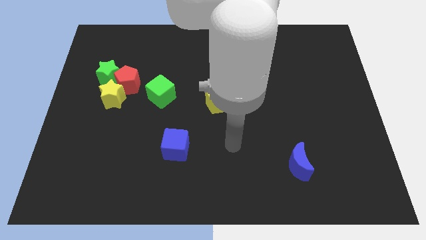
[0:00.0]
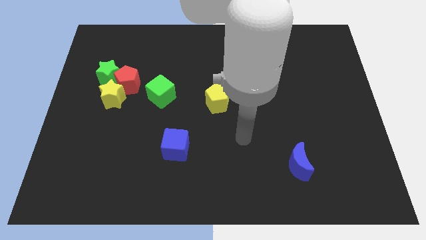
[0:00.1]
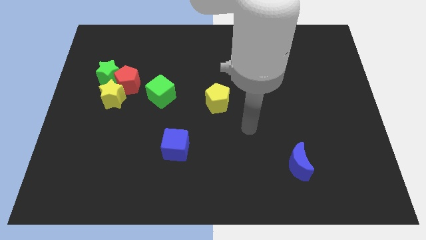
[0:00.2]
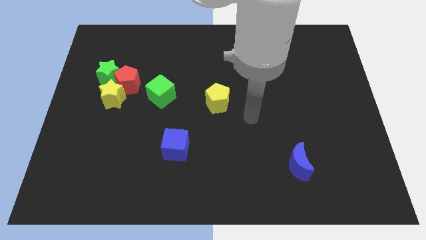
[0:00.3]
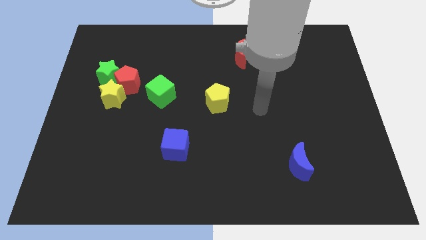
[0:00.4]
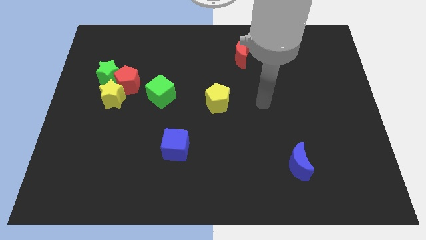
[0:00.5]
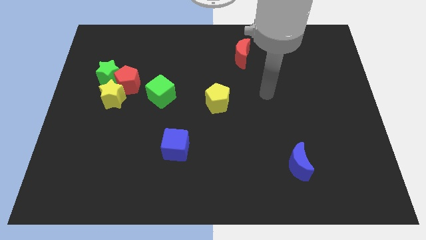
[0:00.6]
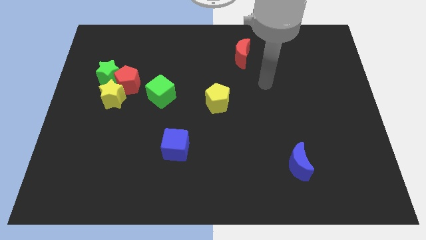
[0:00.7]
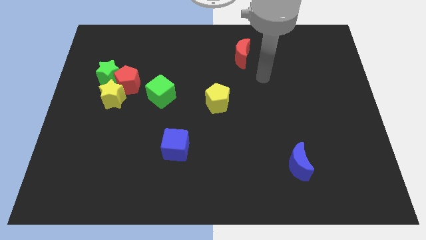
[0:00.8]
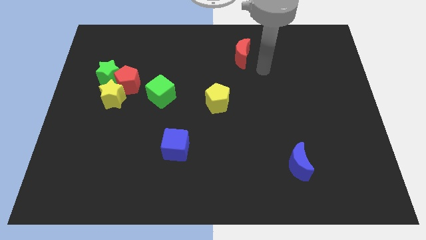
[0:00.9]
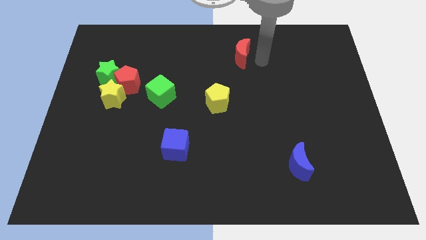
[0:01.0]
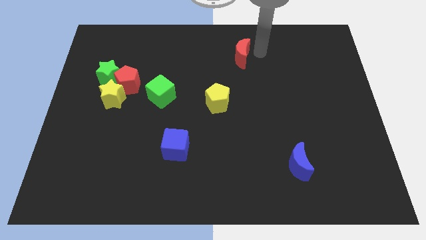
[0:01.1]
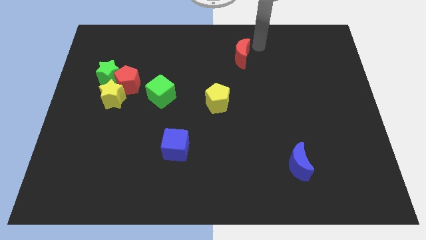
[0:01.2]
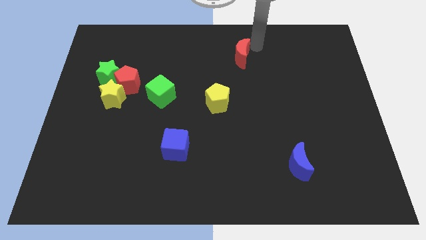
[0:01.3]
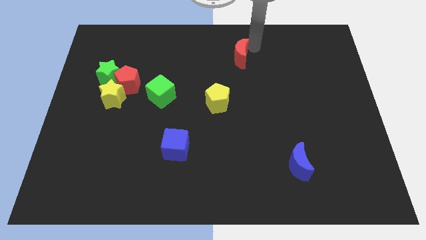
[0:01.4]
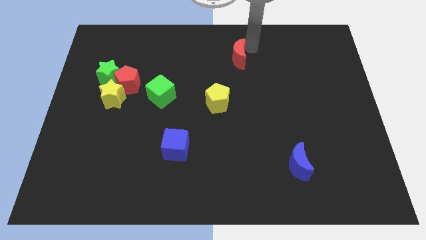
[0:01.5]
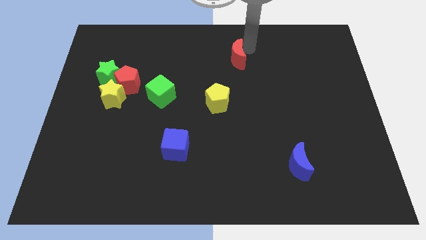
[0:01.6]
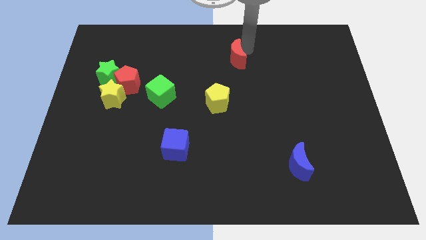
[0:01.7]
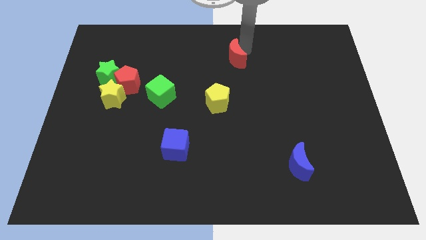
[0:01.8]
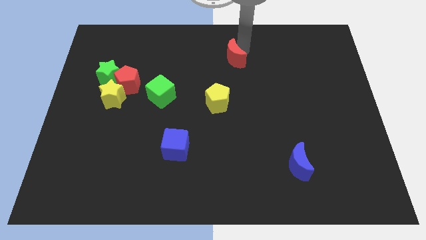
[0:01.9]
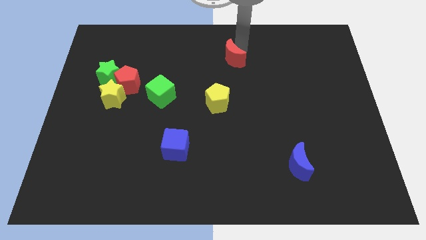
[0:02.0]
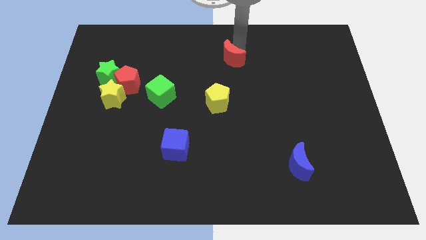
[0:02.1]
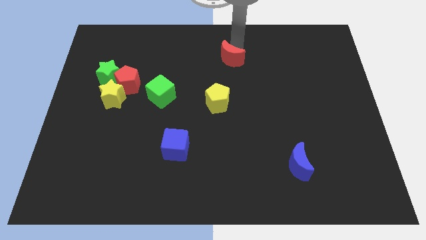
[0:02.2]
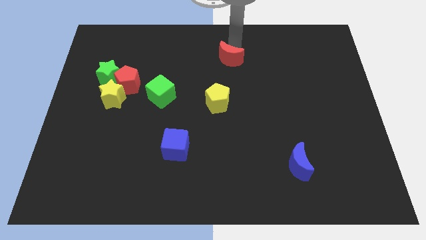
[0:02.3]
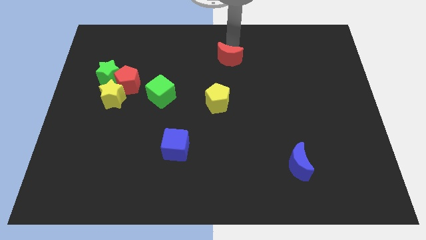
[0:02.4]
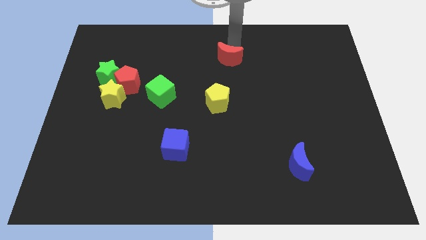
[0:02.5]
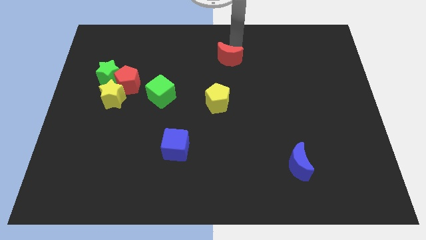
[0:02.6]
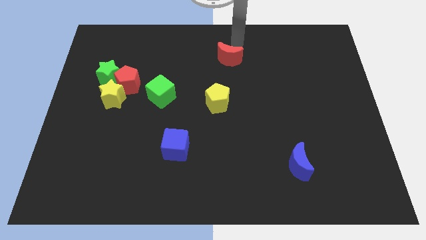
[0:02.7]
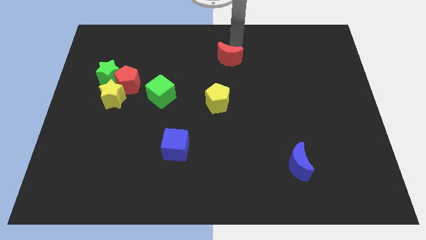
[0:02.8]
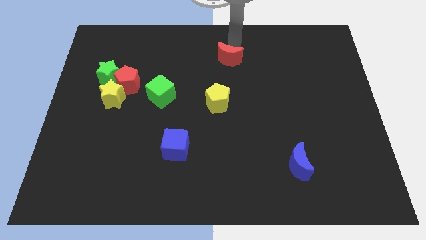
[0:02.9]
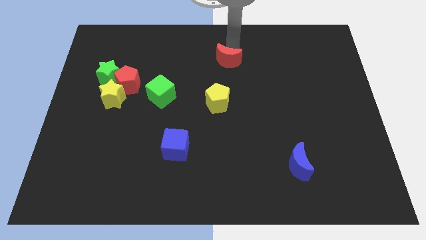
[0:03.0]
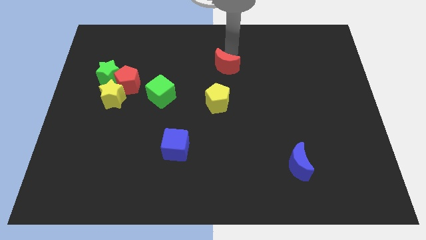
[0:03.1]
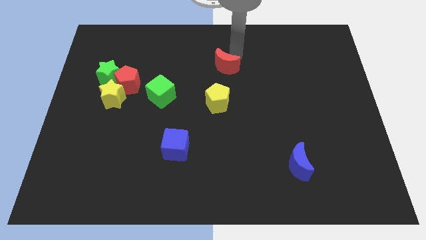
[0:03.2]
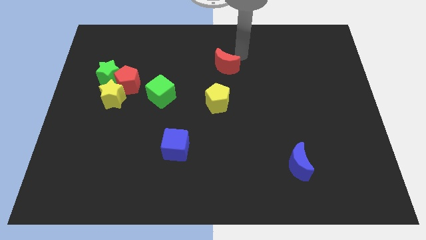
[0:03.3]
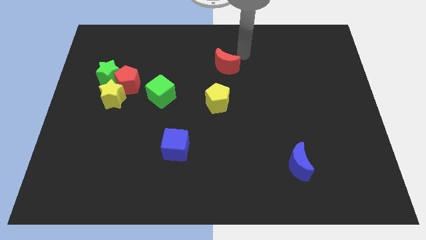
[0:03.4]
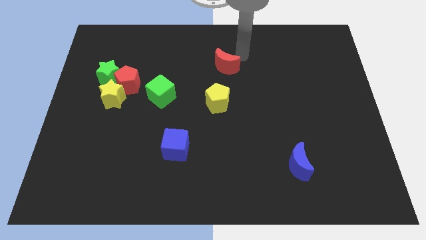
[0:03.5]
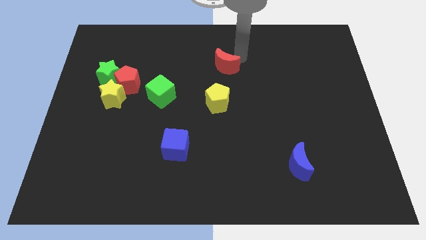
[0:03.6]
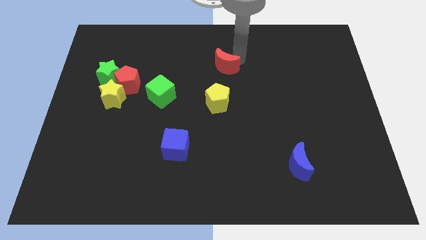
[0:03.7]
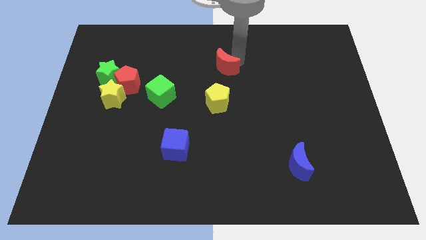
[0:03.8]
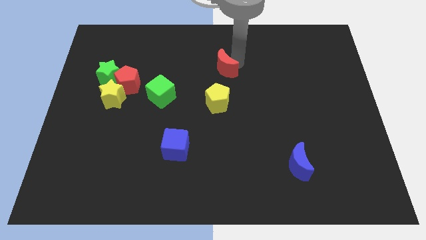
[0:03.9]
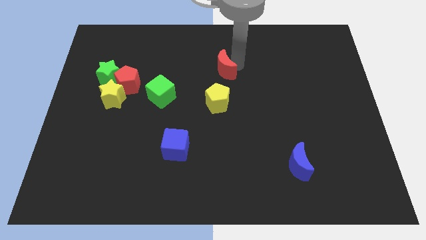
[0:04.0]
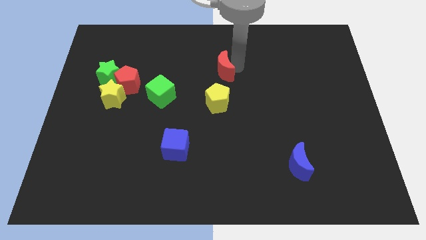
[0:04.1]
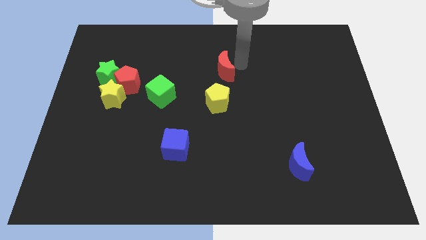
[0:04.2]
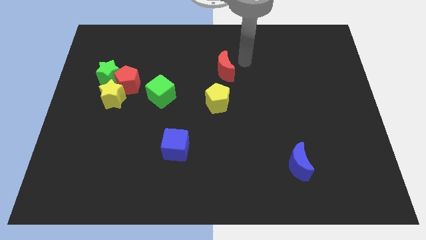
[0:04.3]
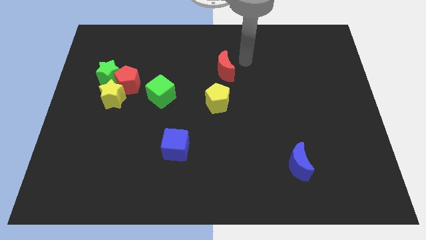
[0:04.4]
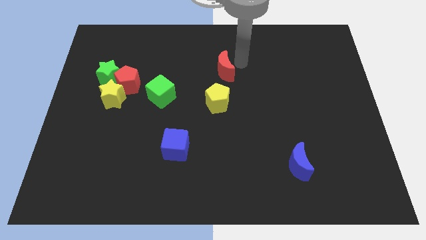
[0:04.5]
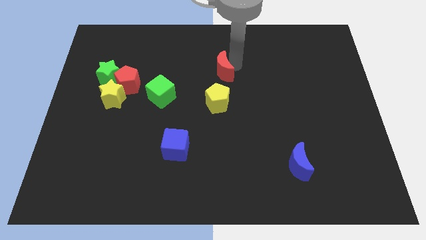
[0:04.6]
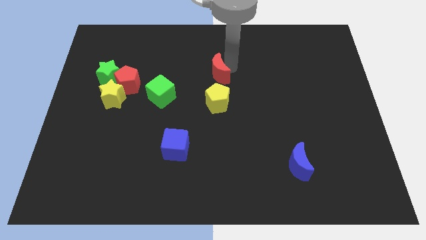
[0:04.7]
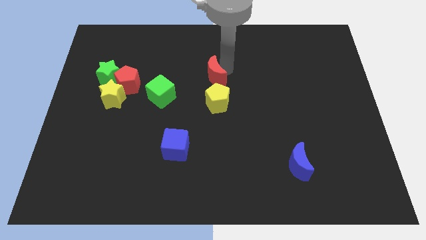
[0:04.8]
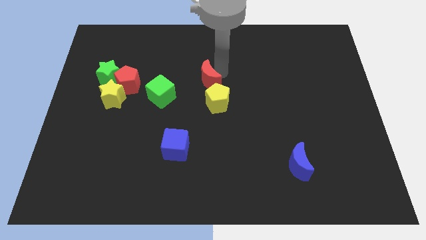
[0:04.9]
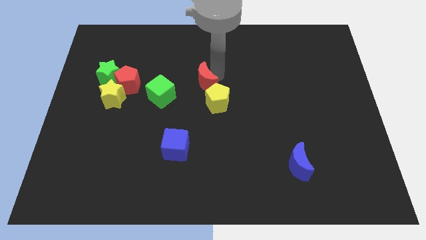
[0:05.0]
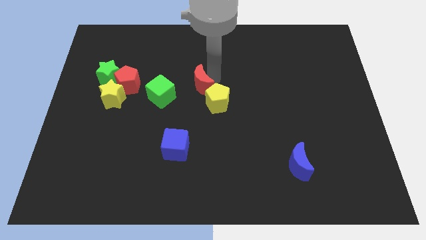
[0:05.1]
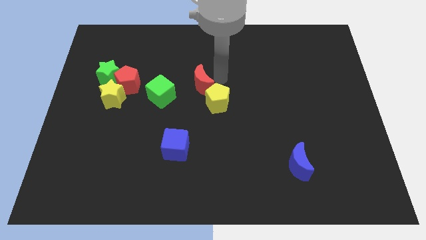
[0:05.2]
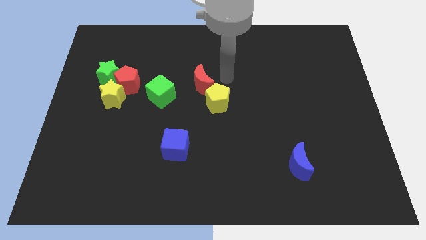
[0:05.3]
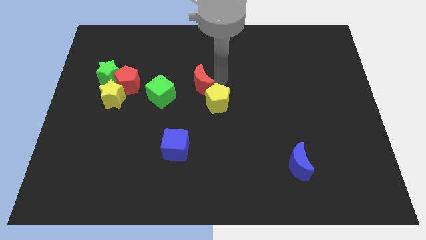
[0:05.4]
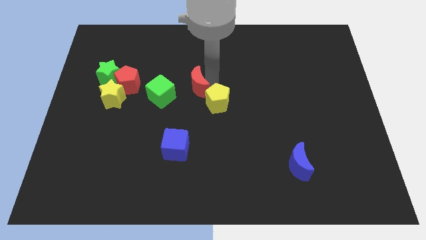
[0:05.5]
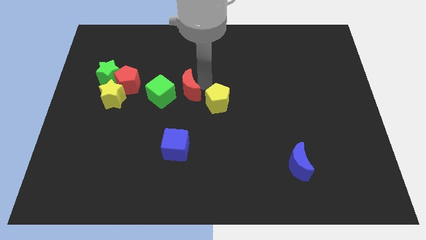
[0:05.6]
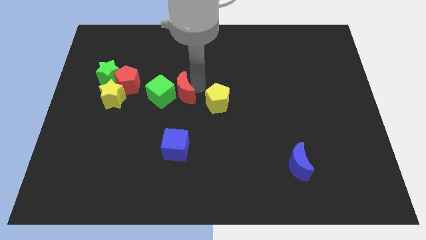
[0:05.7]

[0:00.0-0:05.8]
move the red moon close to the green cube
